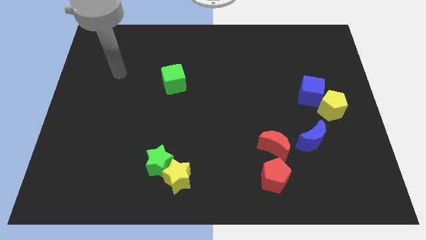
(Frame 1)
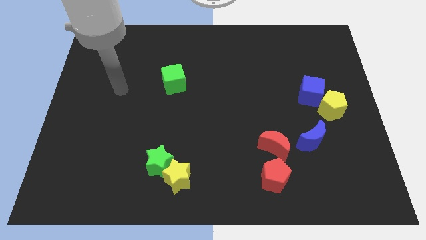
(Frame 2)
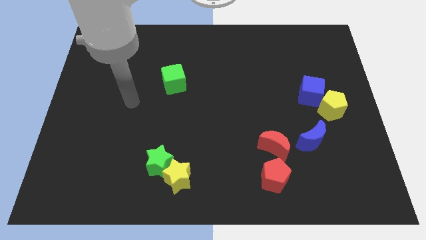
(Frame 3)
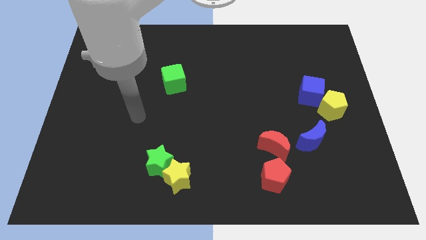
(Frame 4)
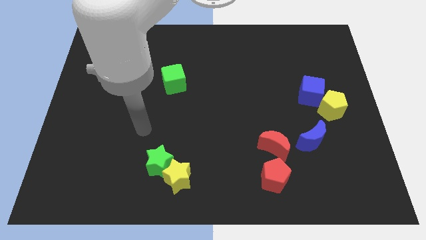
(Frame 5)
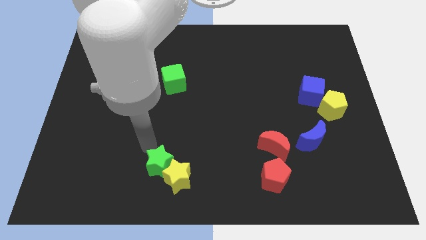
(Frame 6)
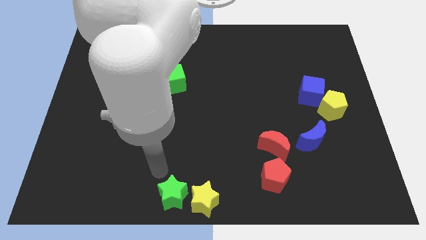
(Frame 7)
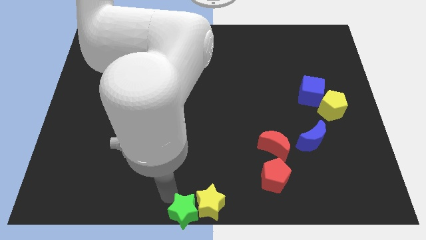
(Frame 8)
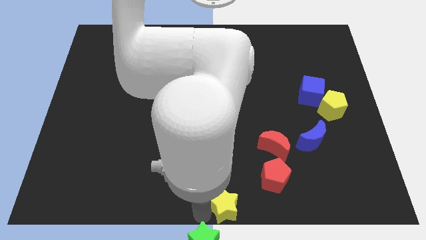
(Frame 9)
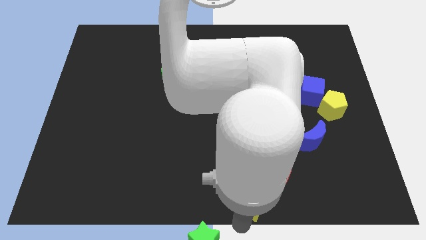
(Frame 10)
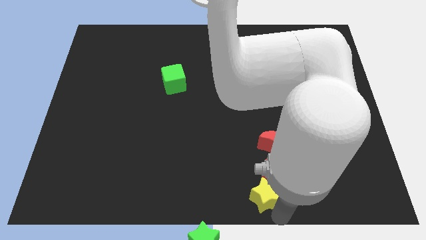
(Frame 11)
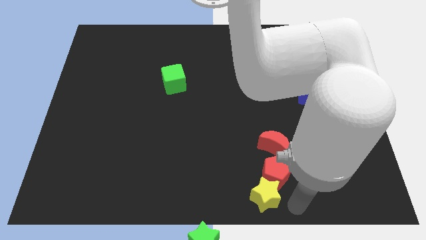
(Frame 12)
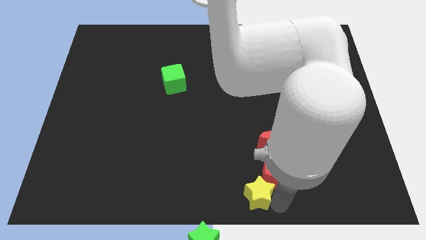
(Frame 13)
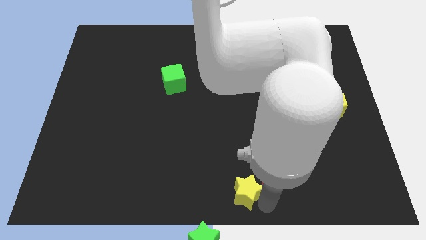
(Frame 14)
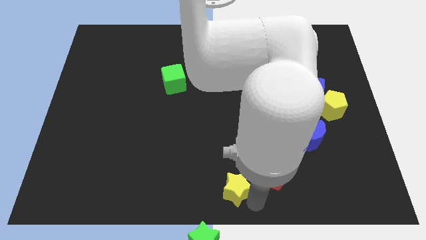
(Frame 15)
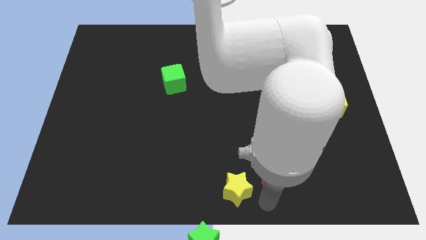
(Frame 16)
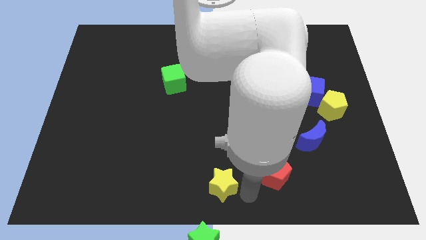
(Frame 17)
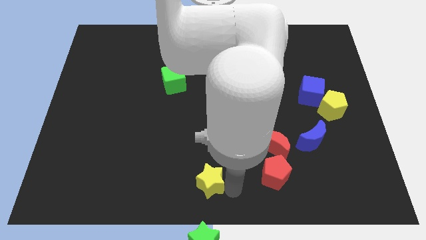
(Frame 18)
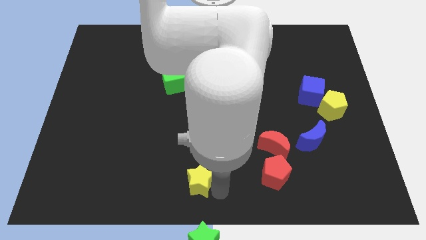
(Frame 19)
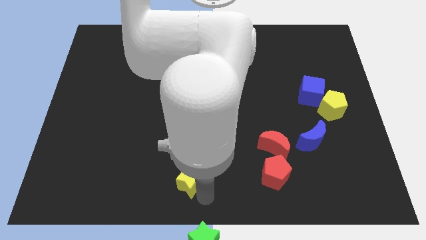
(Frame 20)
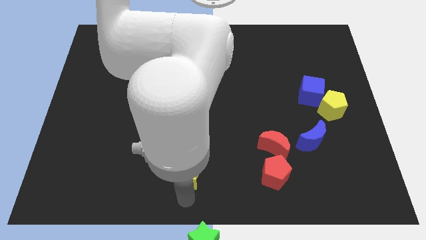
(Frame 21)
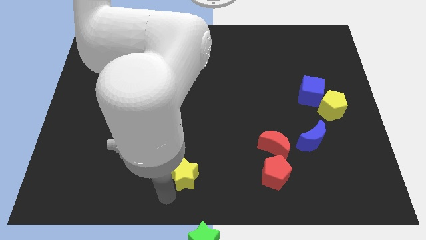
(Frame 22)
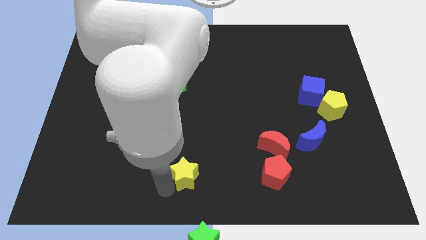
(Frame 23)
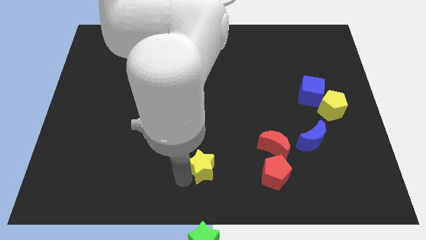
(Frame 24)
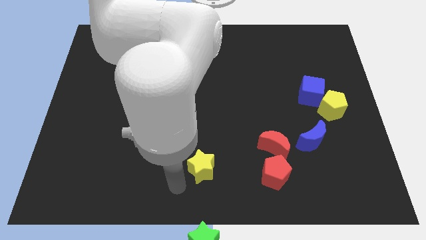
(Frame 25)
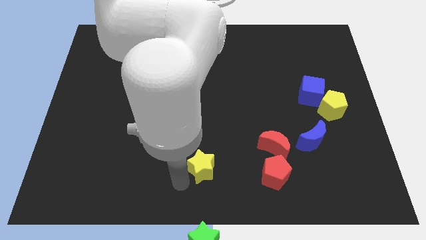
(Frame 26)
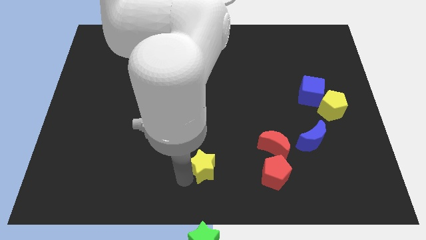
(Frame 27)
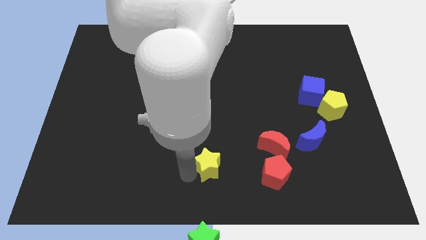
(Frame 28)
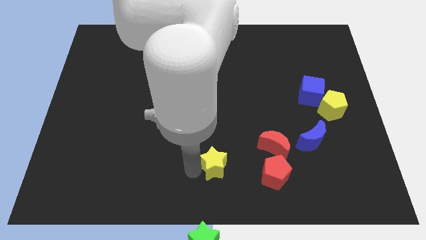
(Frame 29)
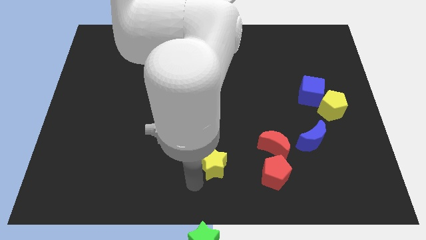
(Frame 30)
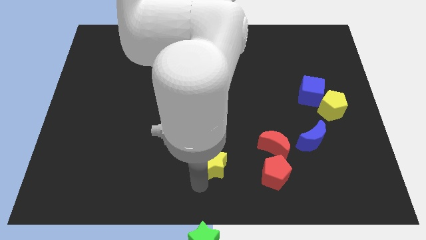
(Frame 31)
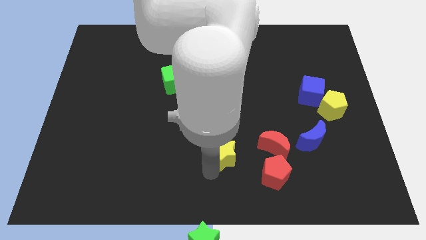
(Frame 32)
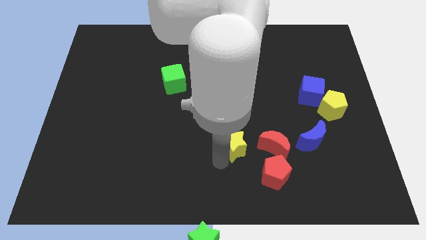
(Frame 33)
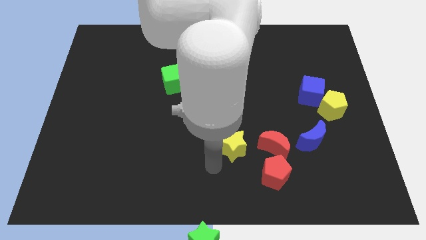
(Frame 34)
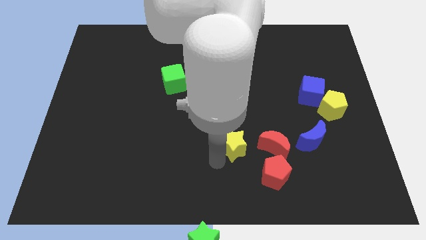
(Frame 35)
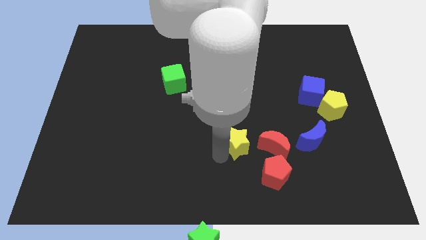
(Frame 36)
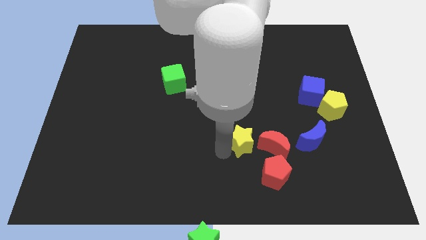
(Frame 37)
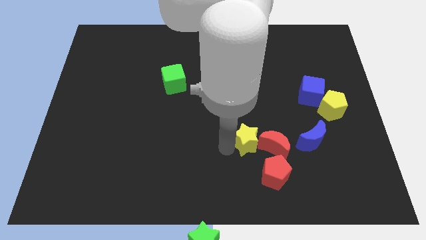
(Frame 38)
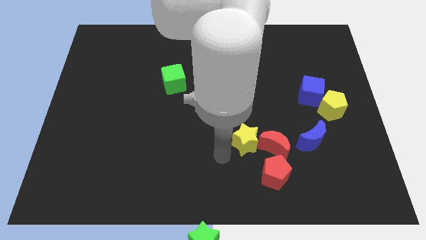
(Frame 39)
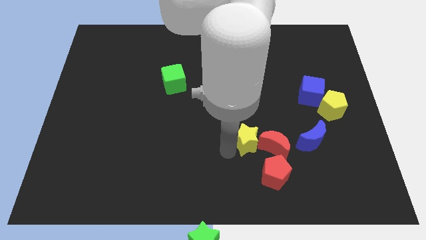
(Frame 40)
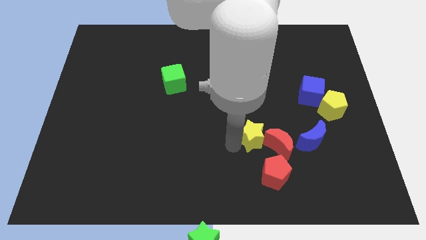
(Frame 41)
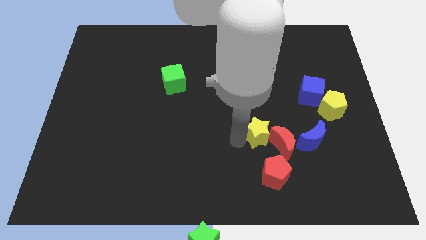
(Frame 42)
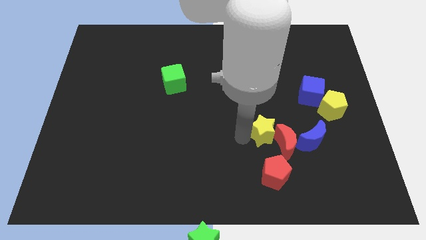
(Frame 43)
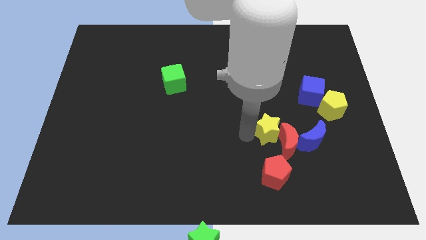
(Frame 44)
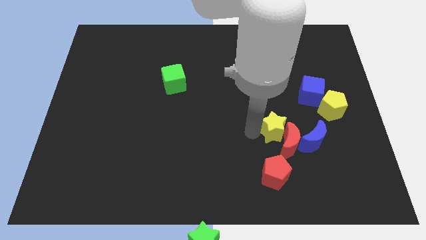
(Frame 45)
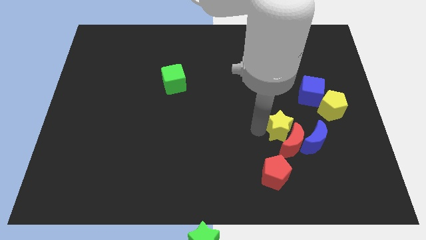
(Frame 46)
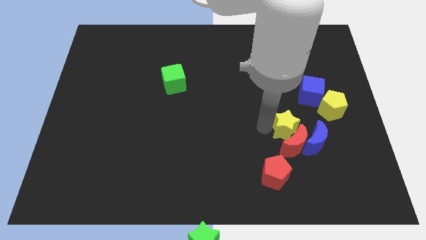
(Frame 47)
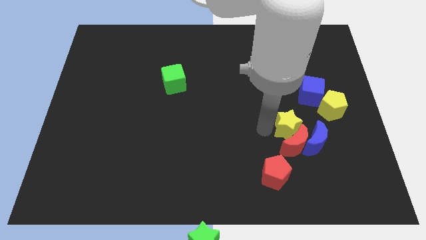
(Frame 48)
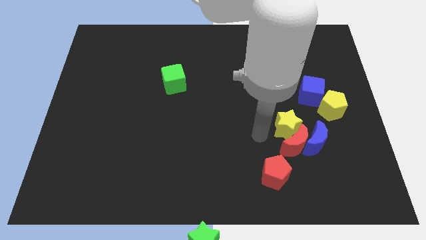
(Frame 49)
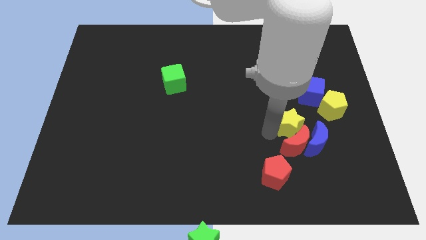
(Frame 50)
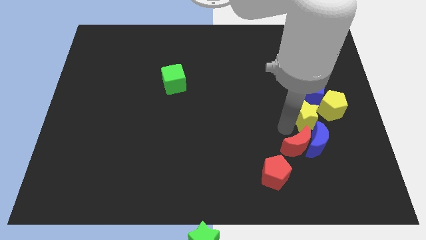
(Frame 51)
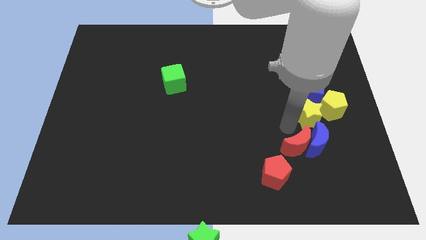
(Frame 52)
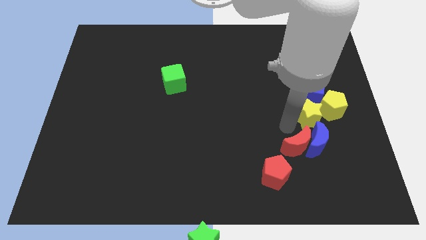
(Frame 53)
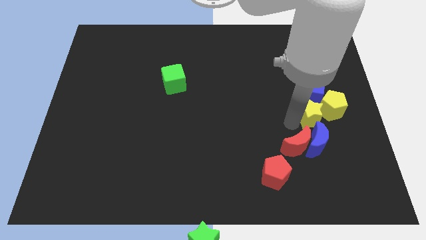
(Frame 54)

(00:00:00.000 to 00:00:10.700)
put the yellow star next to the yellow pentagon

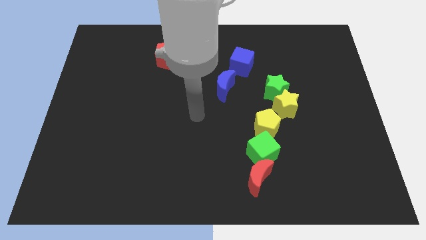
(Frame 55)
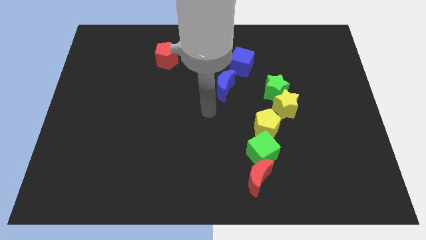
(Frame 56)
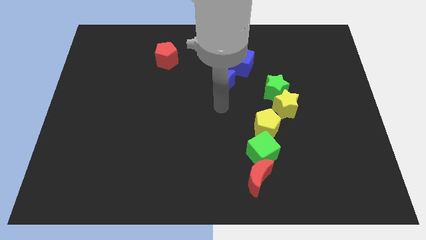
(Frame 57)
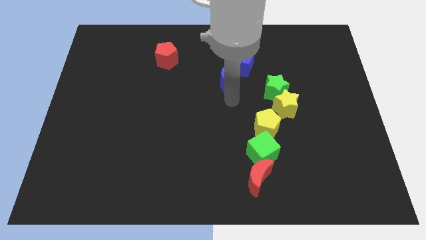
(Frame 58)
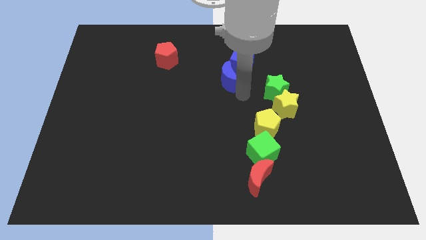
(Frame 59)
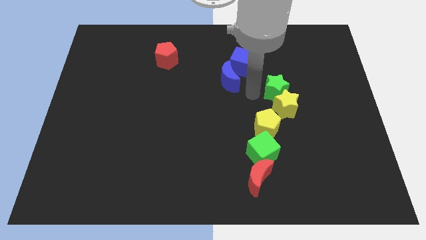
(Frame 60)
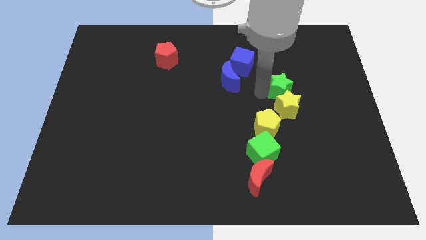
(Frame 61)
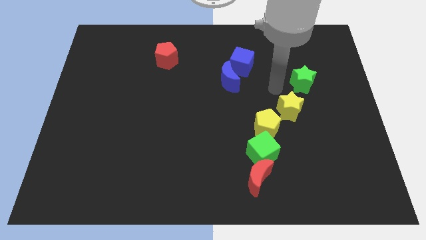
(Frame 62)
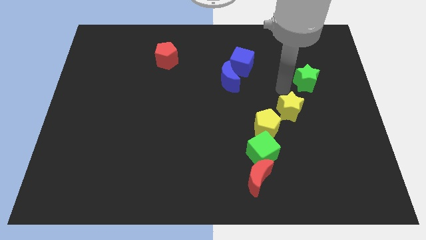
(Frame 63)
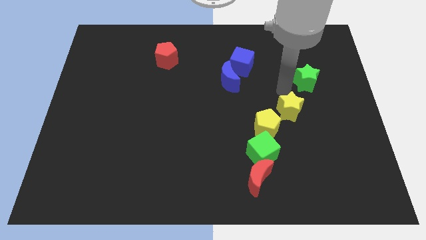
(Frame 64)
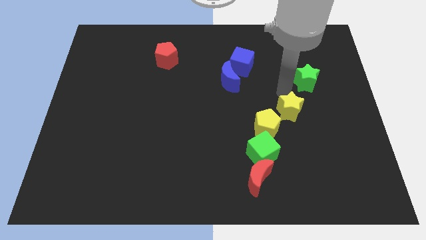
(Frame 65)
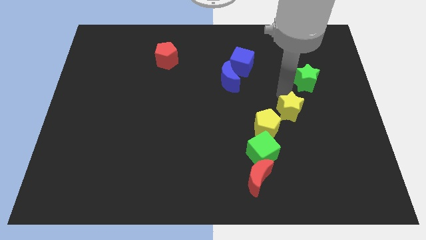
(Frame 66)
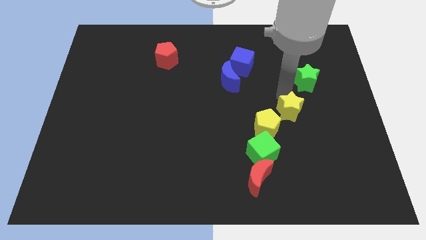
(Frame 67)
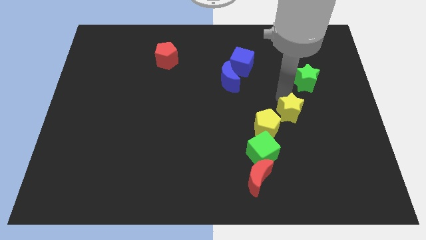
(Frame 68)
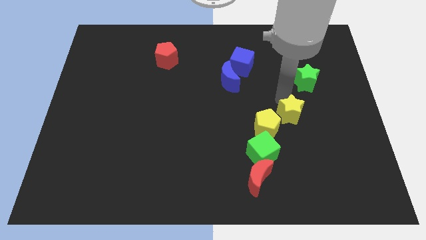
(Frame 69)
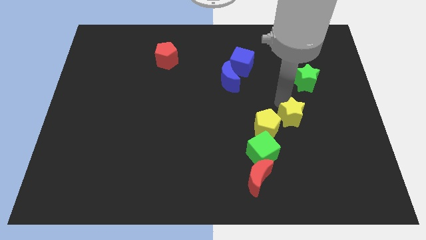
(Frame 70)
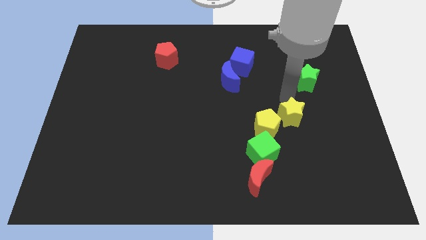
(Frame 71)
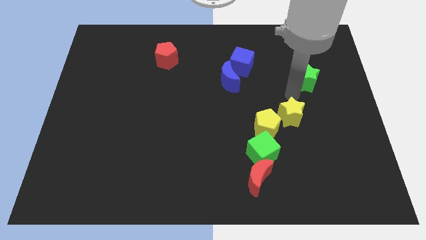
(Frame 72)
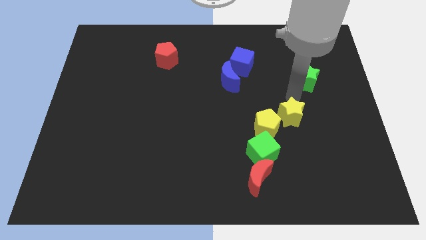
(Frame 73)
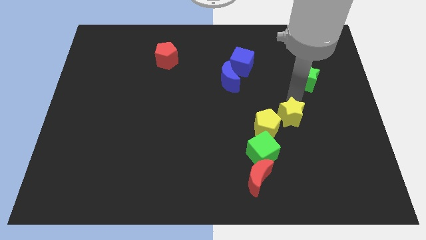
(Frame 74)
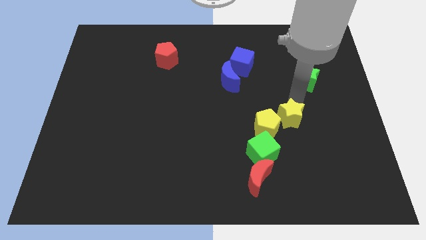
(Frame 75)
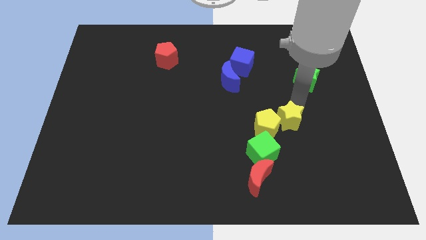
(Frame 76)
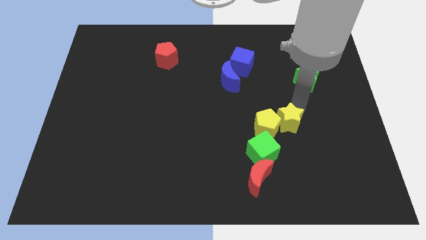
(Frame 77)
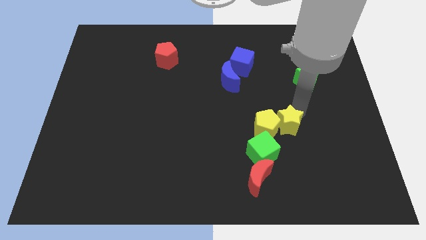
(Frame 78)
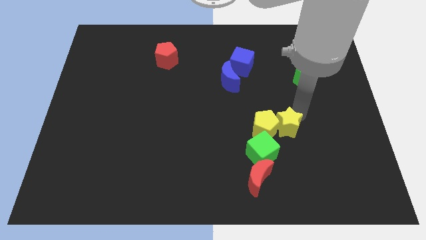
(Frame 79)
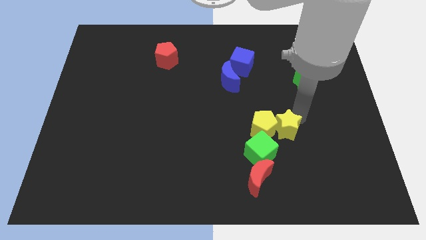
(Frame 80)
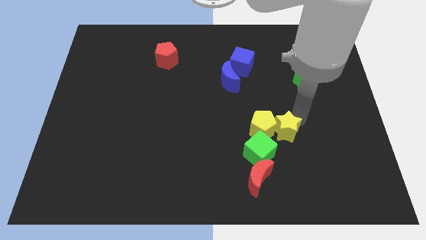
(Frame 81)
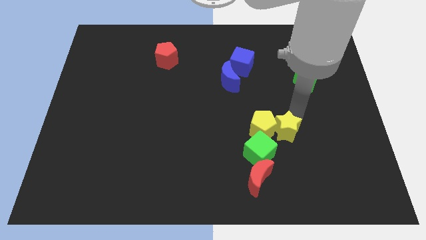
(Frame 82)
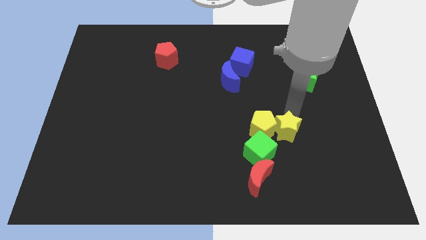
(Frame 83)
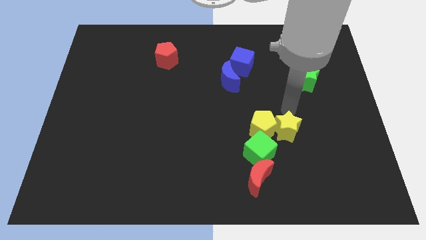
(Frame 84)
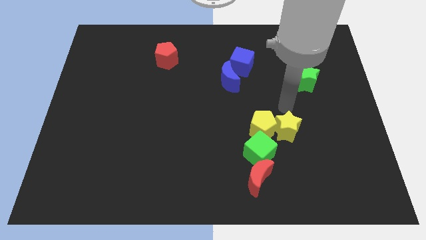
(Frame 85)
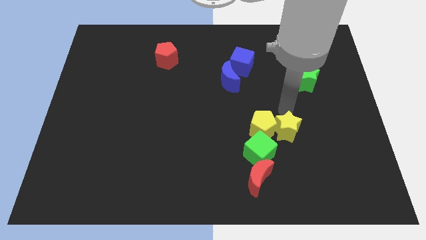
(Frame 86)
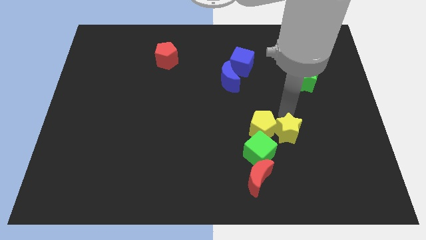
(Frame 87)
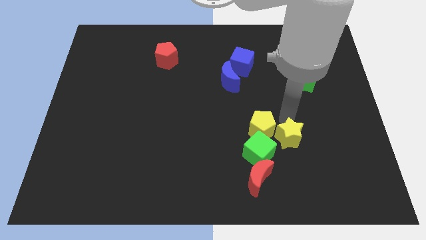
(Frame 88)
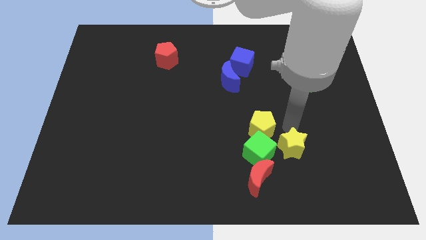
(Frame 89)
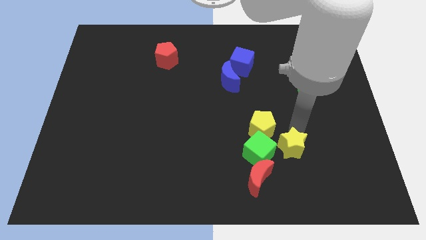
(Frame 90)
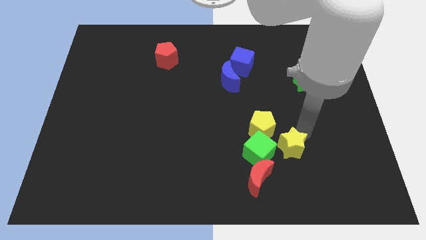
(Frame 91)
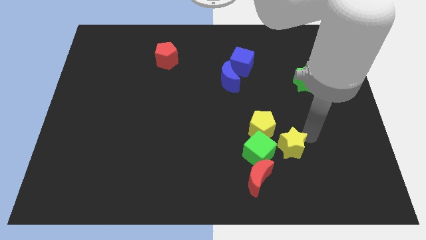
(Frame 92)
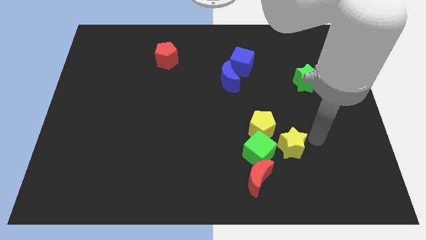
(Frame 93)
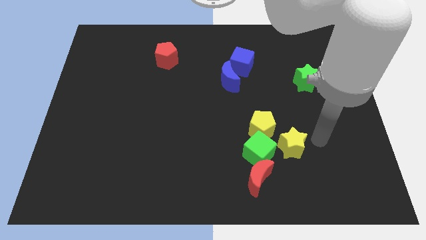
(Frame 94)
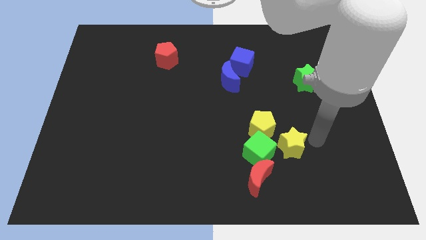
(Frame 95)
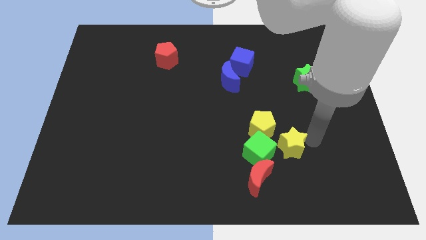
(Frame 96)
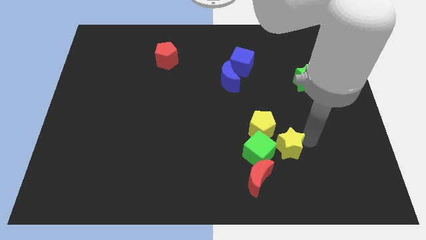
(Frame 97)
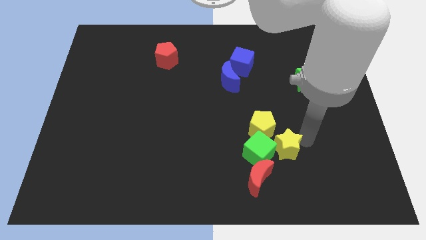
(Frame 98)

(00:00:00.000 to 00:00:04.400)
move the yellow star towards the green cube
